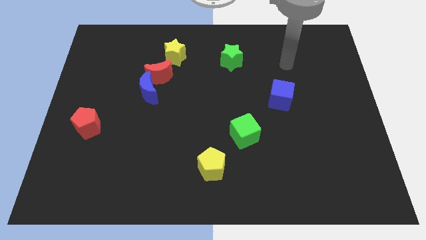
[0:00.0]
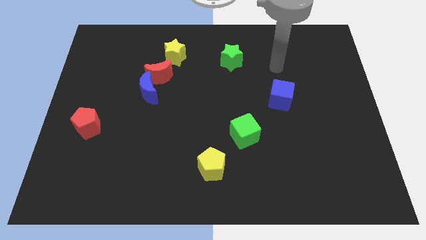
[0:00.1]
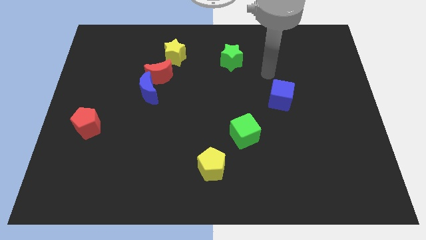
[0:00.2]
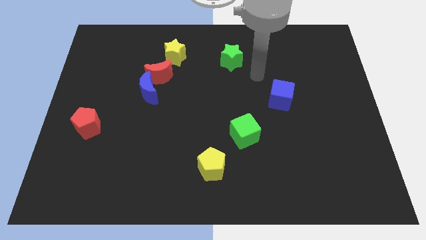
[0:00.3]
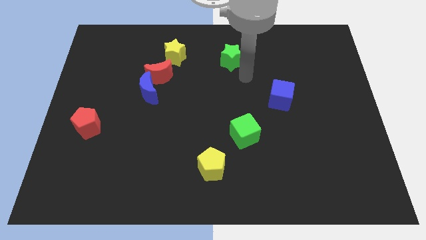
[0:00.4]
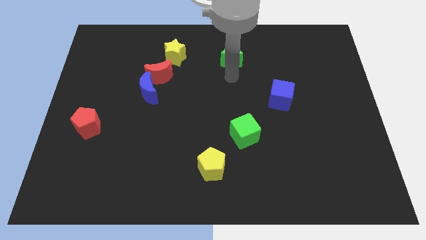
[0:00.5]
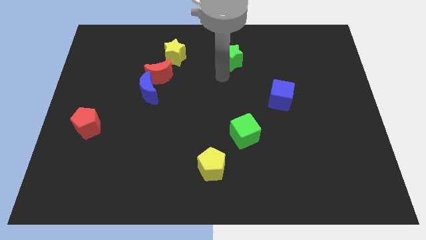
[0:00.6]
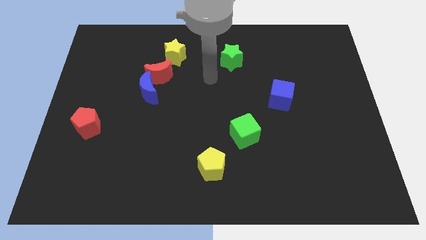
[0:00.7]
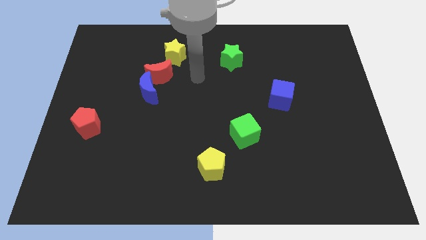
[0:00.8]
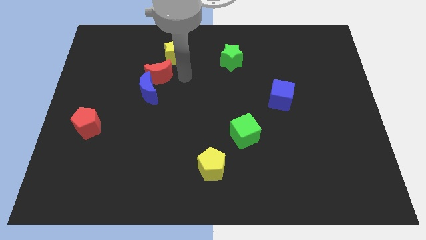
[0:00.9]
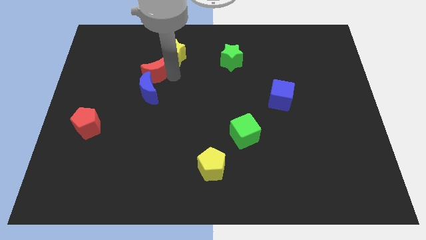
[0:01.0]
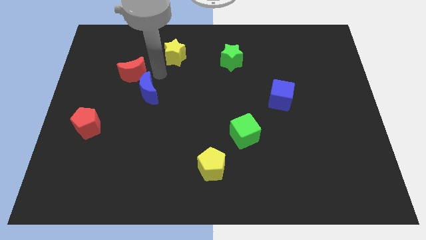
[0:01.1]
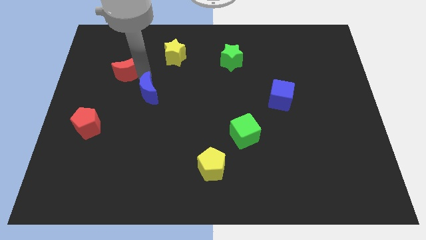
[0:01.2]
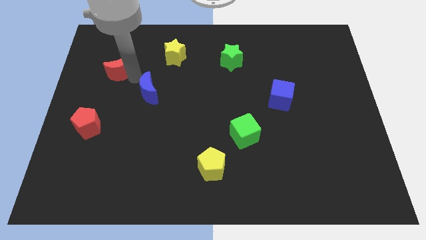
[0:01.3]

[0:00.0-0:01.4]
separate the blue moon from the red moon

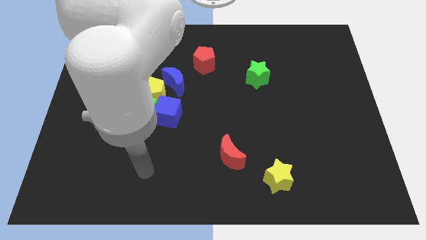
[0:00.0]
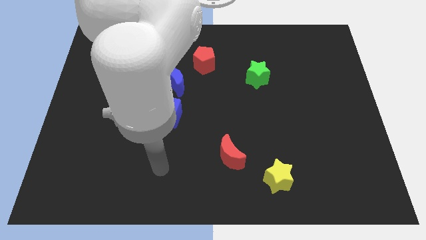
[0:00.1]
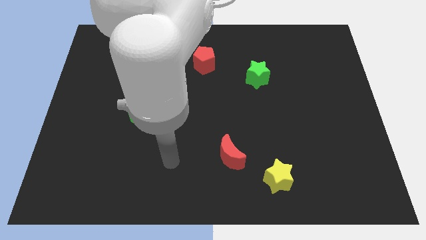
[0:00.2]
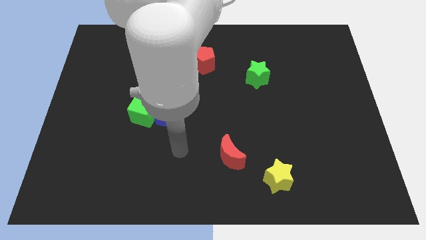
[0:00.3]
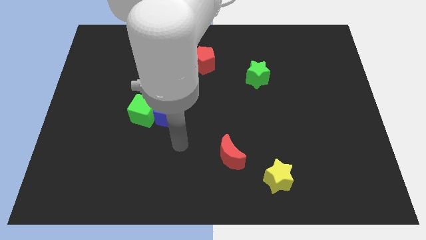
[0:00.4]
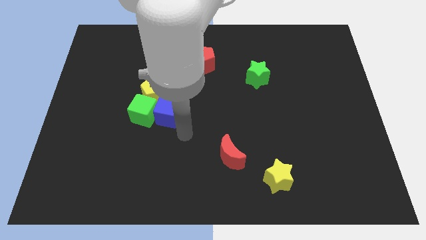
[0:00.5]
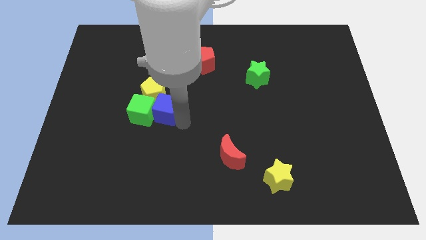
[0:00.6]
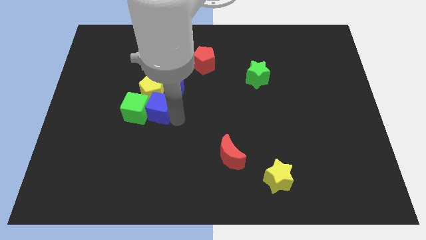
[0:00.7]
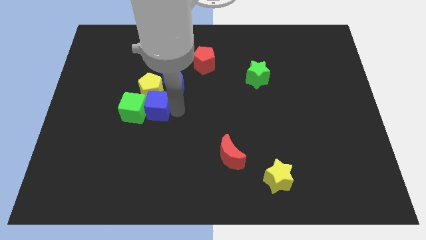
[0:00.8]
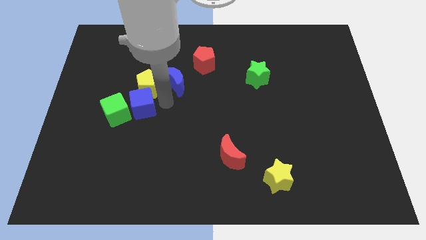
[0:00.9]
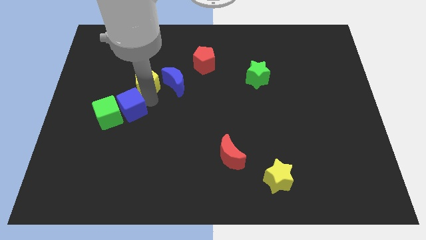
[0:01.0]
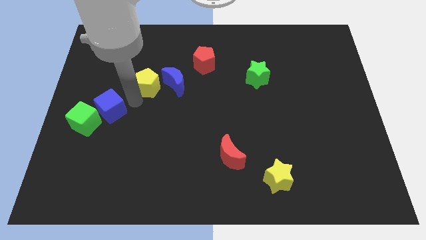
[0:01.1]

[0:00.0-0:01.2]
separate the green cube from the blue cube and yellow pentagon

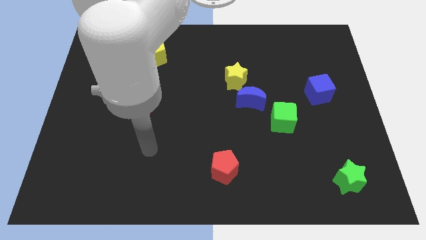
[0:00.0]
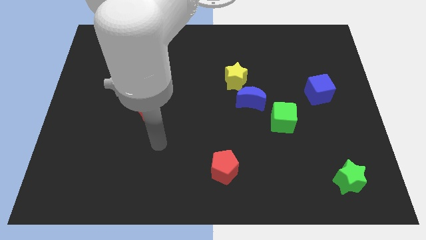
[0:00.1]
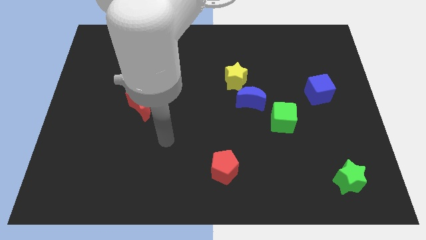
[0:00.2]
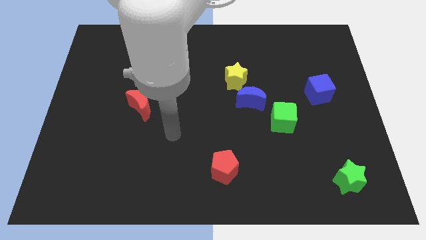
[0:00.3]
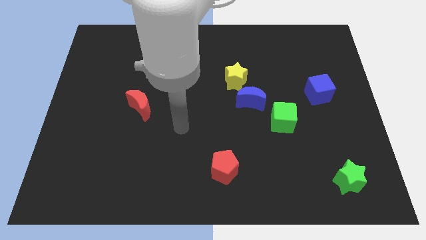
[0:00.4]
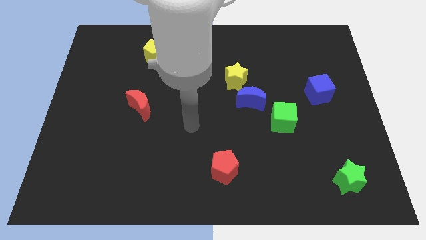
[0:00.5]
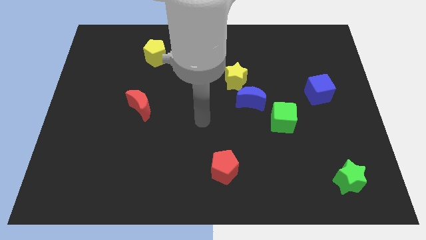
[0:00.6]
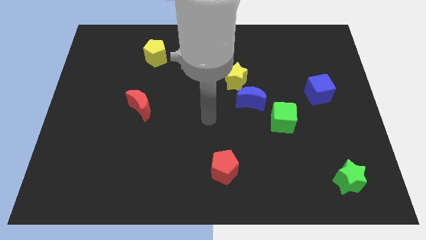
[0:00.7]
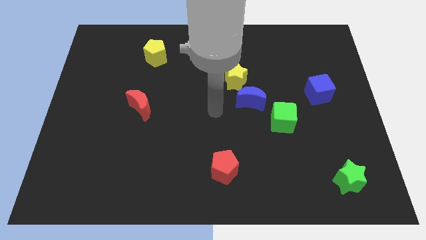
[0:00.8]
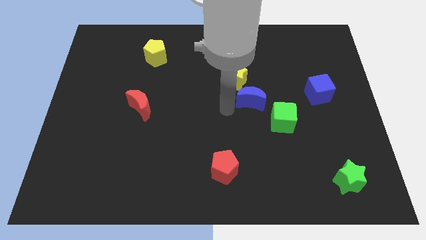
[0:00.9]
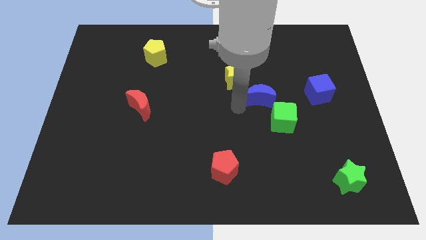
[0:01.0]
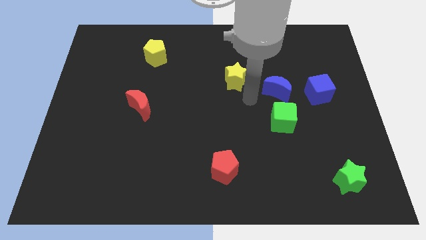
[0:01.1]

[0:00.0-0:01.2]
move the yellow star away from the blue moon

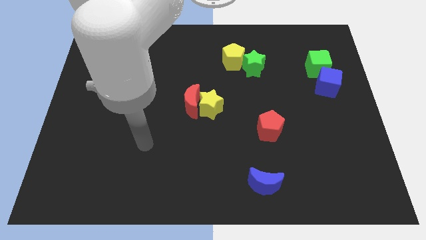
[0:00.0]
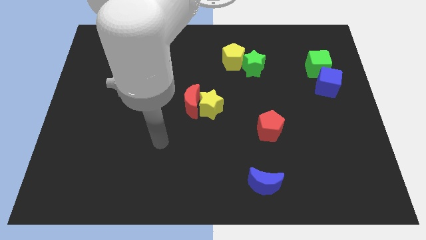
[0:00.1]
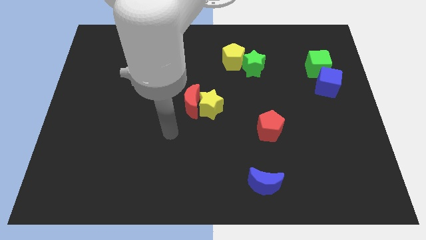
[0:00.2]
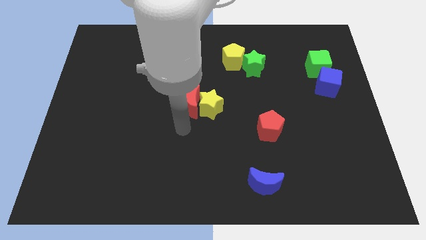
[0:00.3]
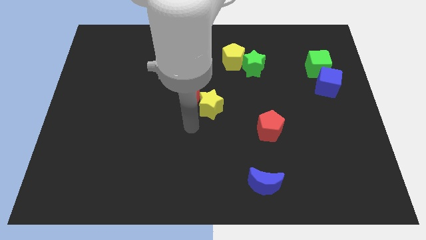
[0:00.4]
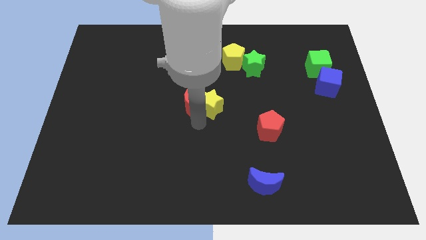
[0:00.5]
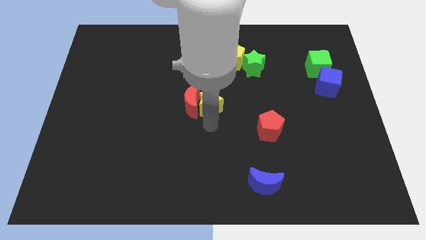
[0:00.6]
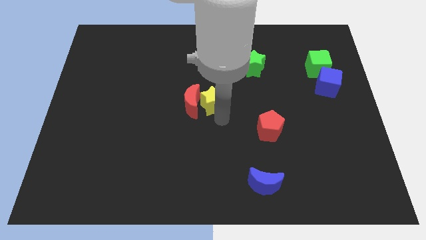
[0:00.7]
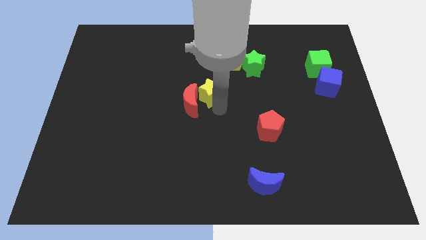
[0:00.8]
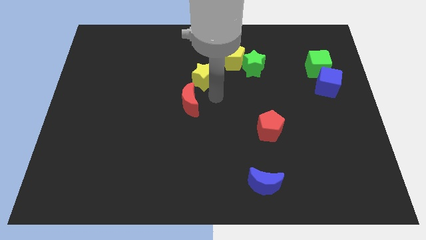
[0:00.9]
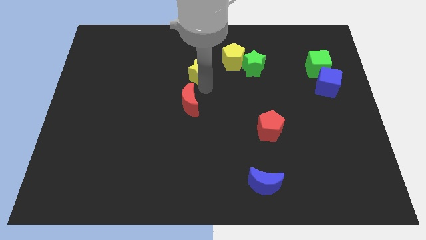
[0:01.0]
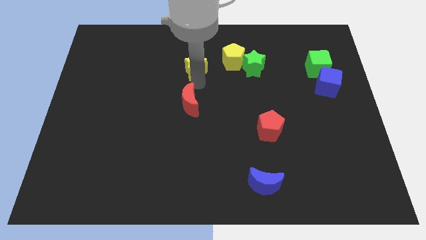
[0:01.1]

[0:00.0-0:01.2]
separate the red moon from the yellow star

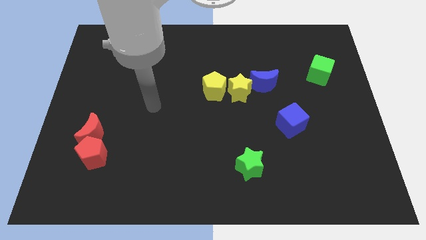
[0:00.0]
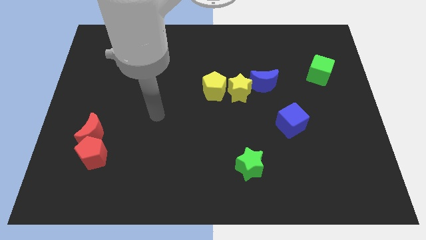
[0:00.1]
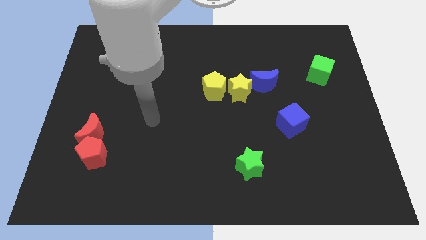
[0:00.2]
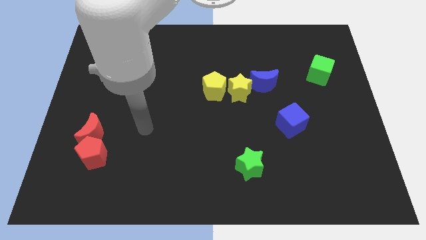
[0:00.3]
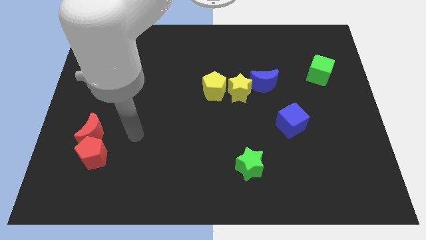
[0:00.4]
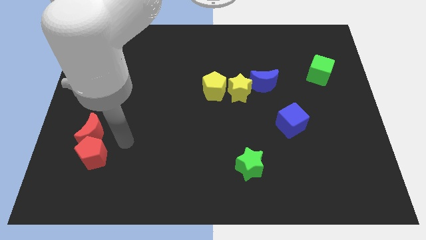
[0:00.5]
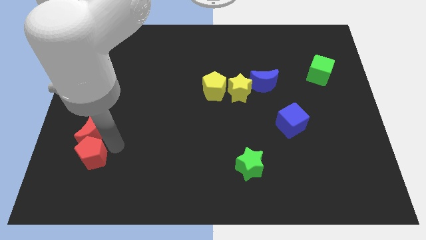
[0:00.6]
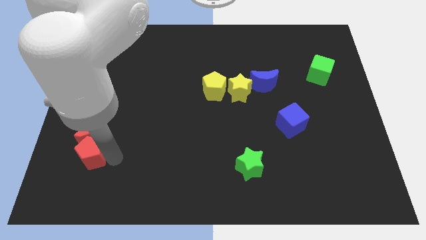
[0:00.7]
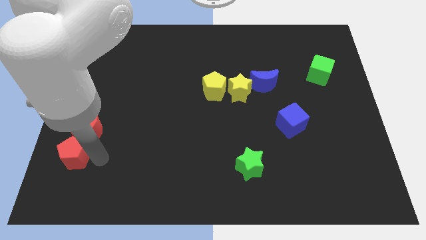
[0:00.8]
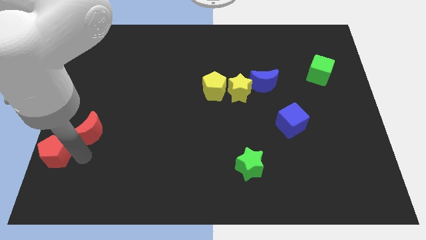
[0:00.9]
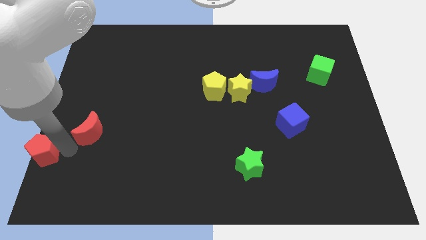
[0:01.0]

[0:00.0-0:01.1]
pull the red moon apart from the red pentagon

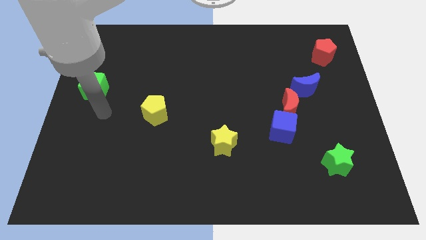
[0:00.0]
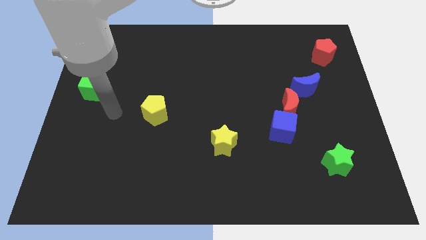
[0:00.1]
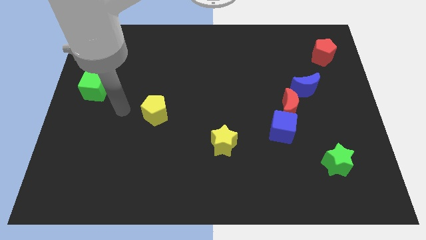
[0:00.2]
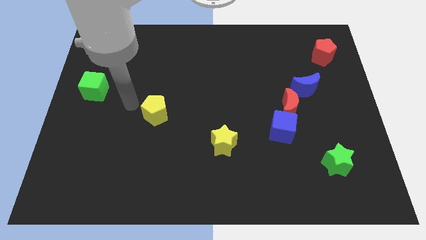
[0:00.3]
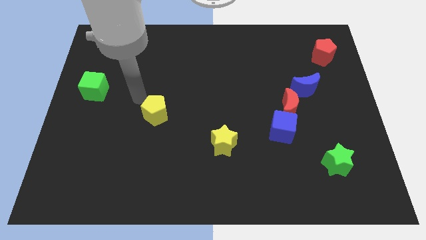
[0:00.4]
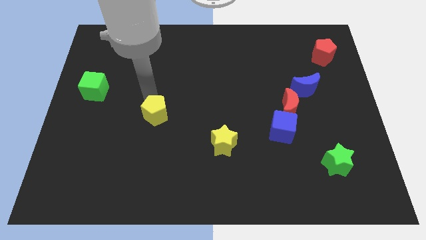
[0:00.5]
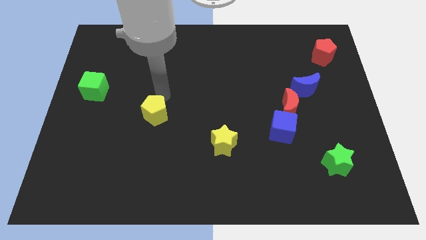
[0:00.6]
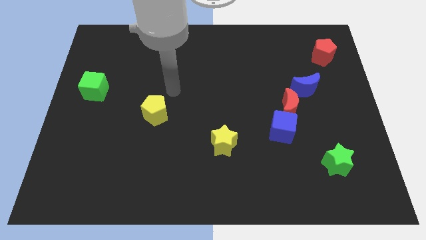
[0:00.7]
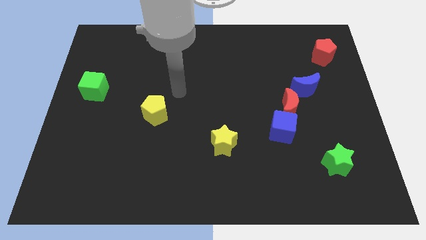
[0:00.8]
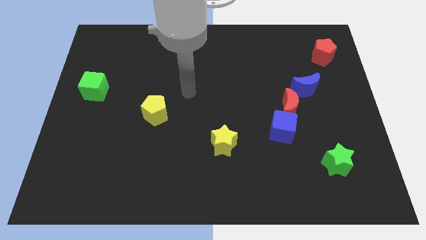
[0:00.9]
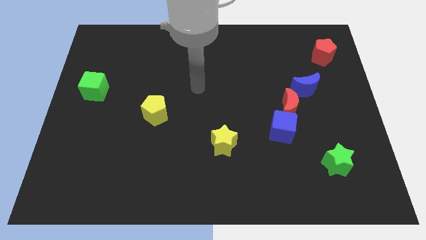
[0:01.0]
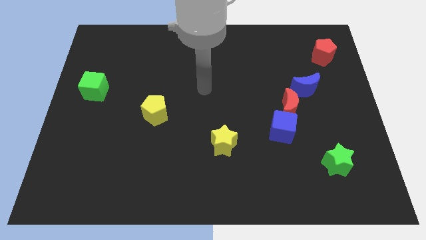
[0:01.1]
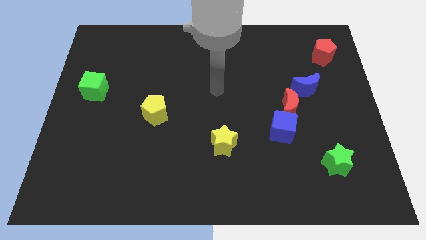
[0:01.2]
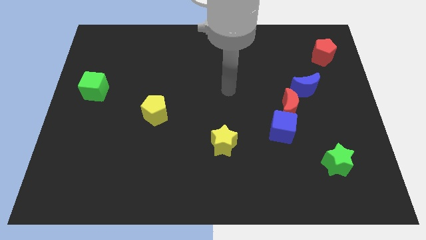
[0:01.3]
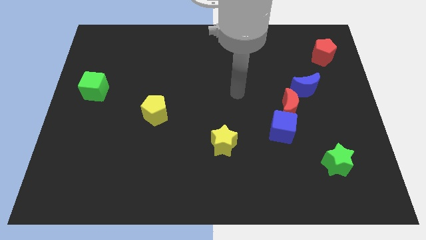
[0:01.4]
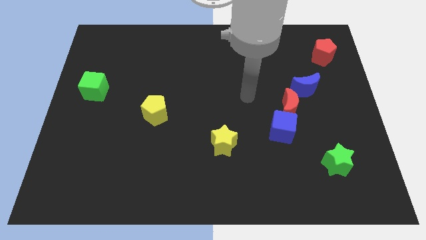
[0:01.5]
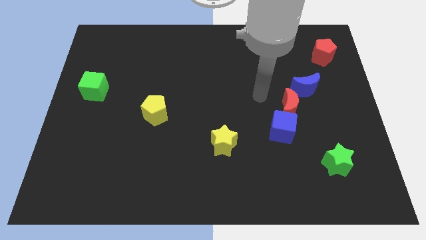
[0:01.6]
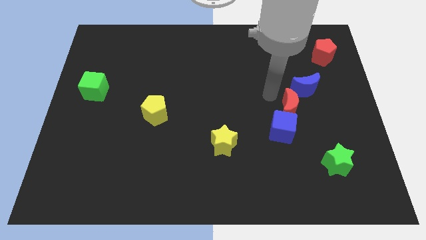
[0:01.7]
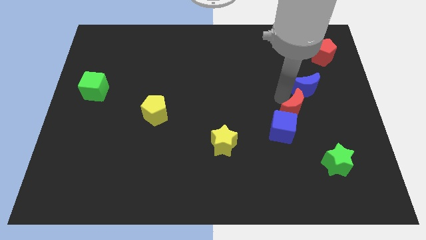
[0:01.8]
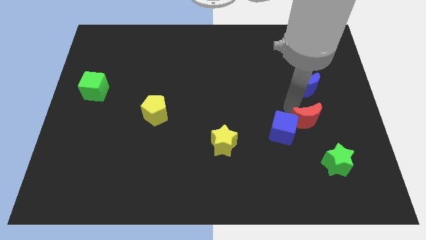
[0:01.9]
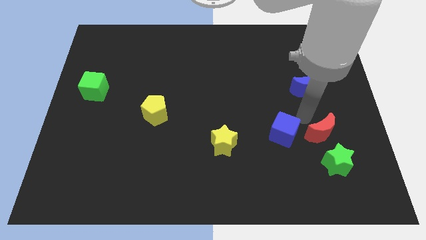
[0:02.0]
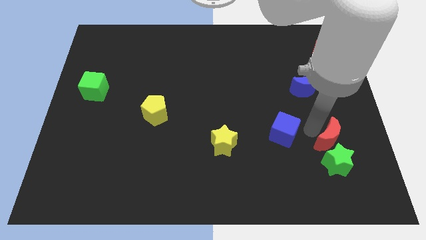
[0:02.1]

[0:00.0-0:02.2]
separate the blue cube from the red moon

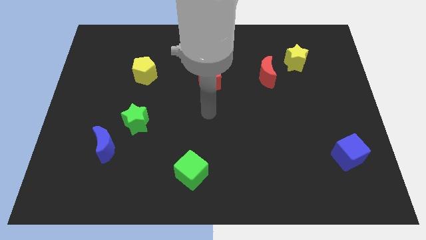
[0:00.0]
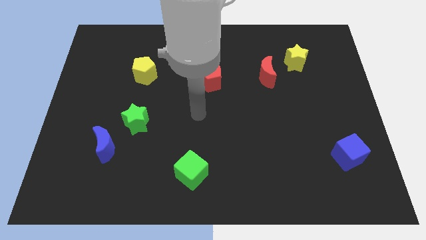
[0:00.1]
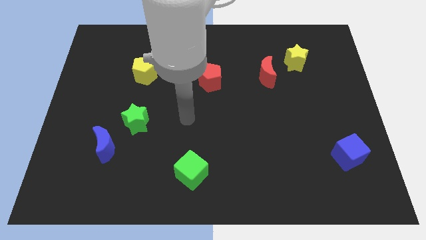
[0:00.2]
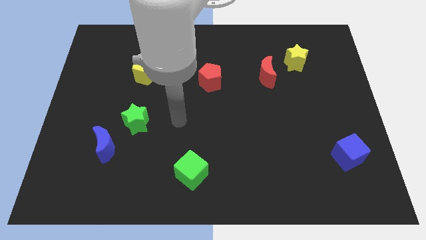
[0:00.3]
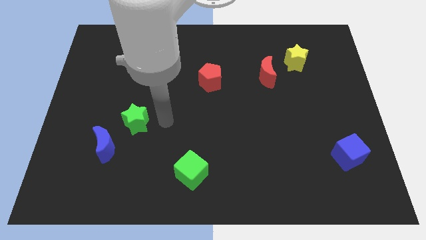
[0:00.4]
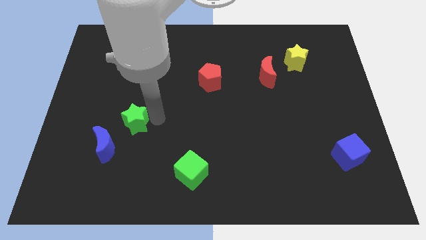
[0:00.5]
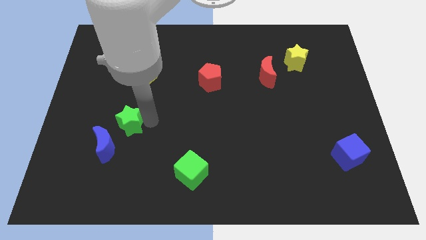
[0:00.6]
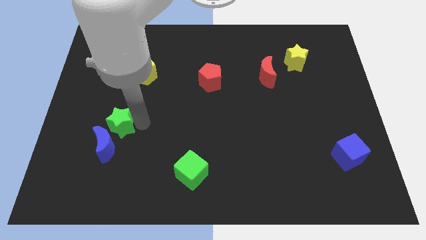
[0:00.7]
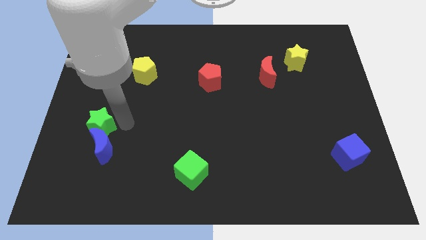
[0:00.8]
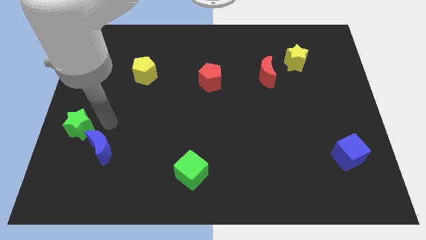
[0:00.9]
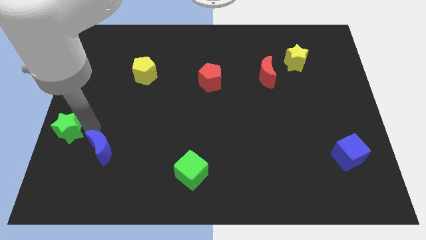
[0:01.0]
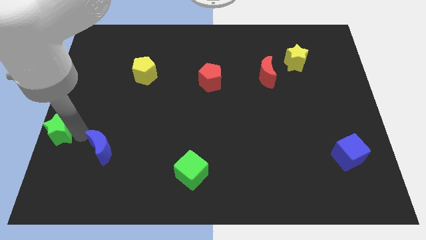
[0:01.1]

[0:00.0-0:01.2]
pull the blue moon apart from the green star
